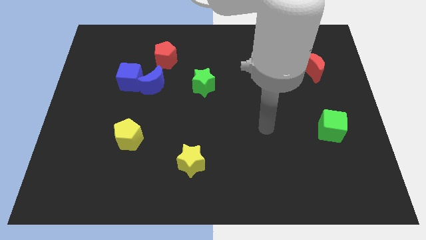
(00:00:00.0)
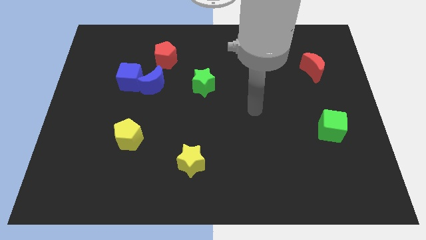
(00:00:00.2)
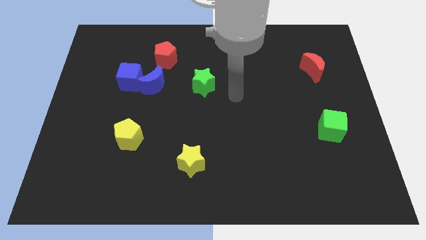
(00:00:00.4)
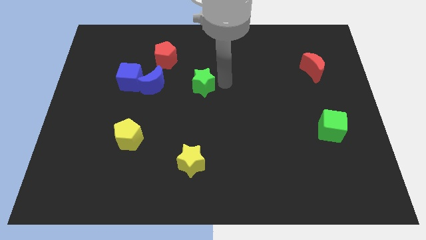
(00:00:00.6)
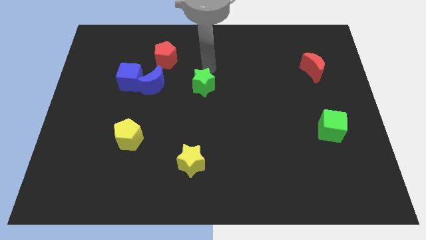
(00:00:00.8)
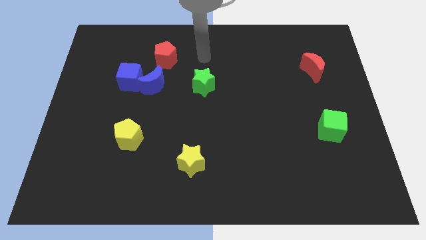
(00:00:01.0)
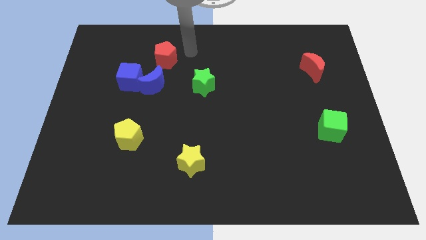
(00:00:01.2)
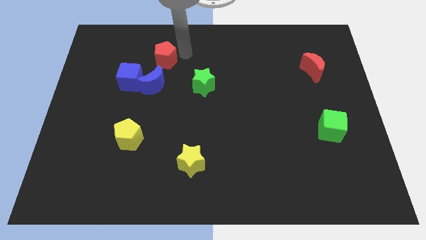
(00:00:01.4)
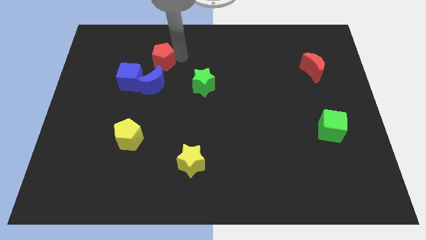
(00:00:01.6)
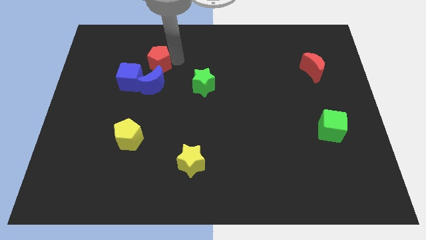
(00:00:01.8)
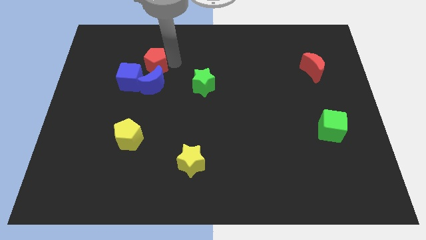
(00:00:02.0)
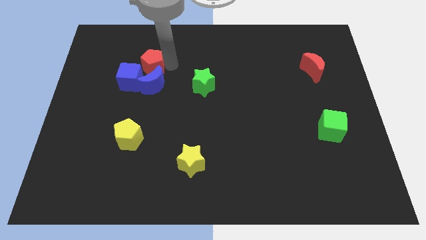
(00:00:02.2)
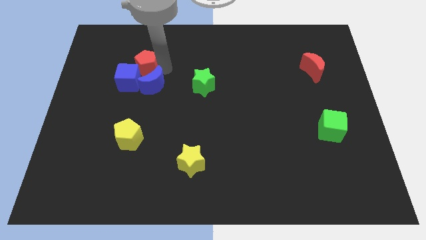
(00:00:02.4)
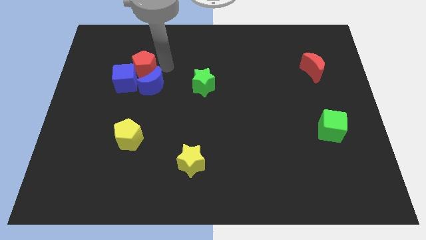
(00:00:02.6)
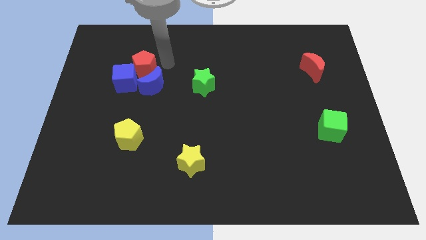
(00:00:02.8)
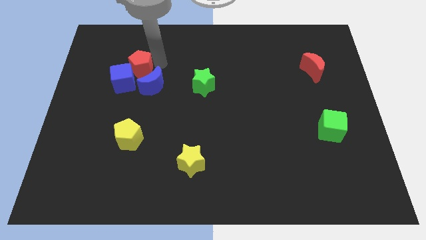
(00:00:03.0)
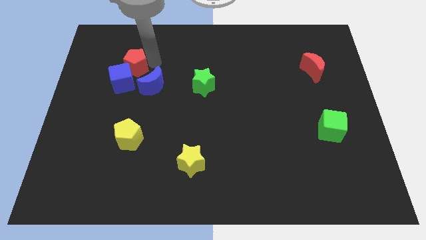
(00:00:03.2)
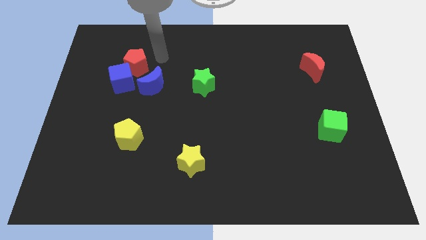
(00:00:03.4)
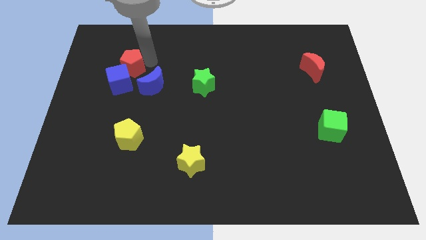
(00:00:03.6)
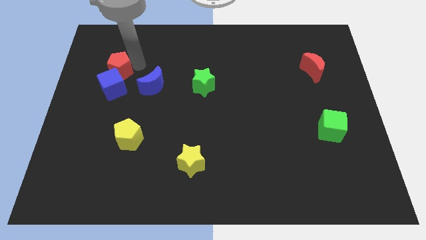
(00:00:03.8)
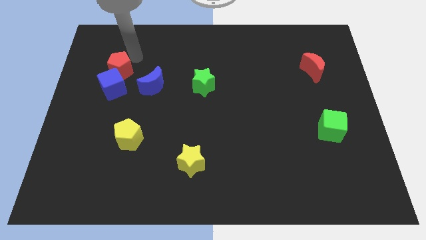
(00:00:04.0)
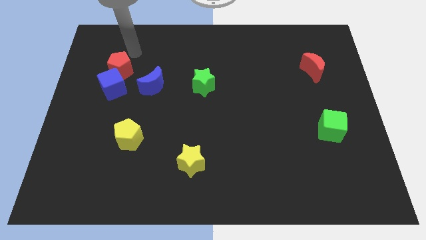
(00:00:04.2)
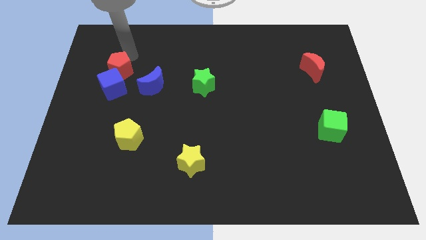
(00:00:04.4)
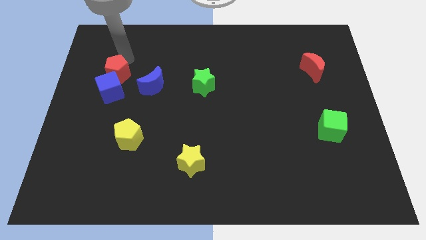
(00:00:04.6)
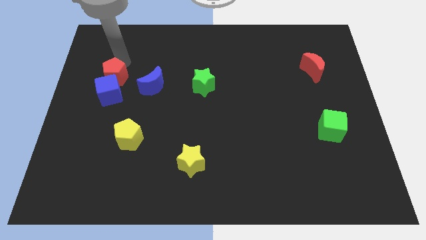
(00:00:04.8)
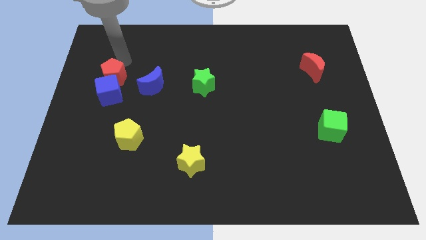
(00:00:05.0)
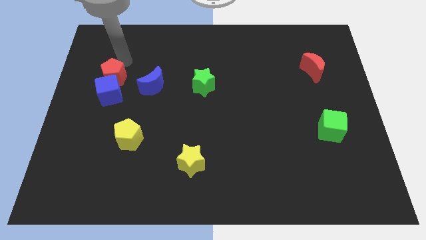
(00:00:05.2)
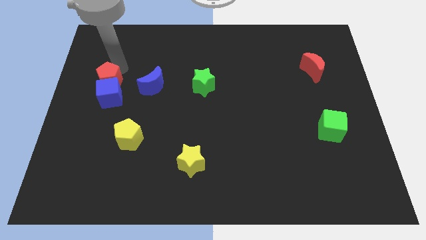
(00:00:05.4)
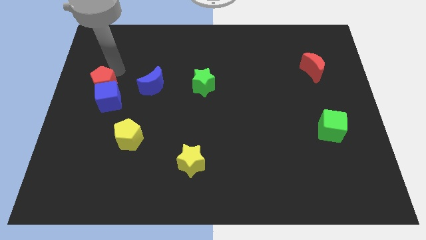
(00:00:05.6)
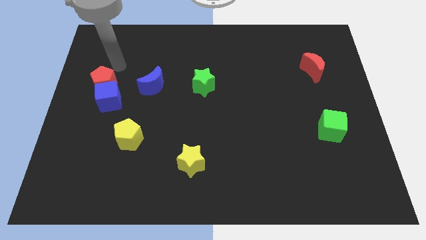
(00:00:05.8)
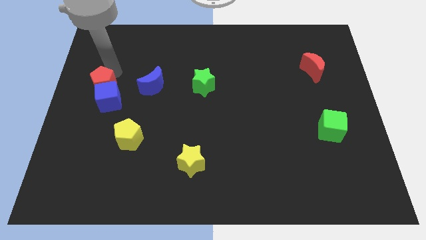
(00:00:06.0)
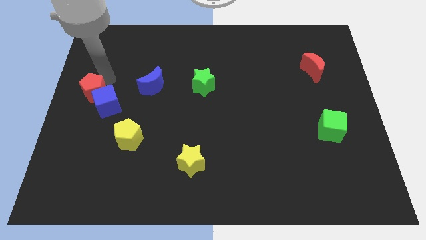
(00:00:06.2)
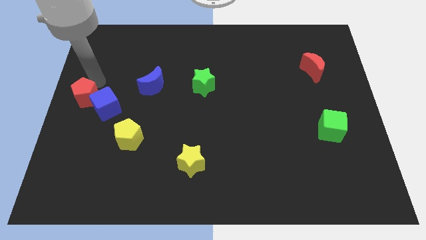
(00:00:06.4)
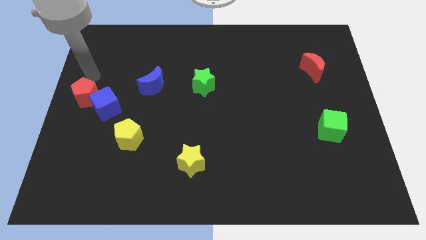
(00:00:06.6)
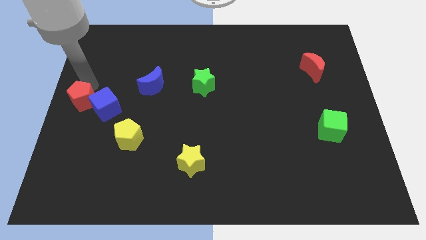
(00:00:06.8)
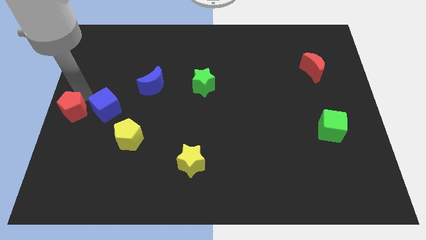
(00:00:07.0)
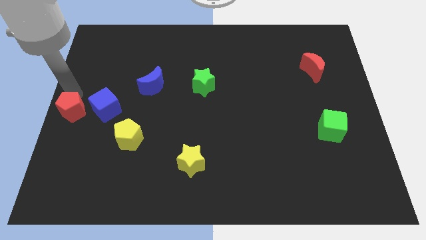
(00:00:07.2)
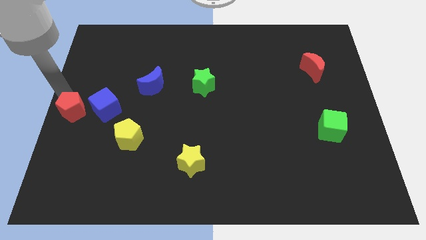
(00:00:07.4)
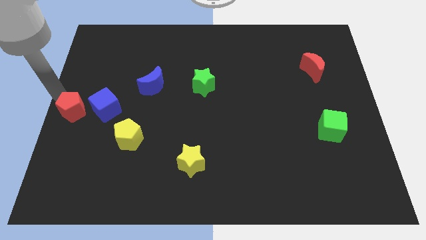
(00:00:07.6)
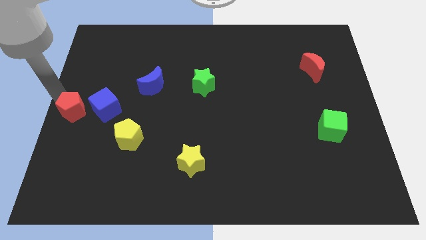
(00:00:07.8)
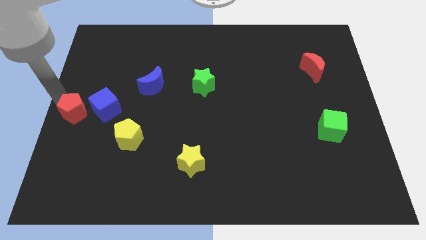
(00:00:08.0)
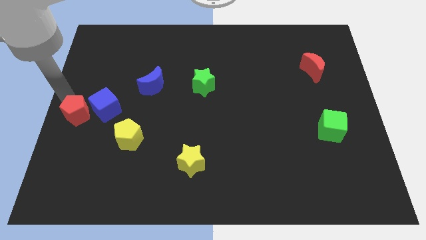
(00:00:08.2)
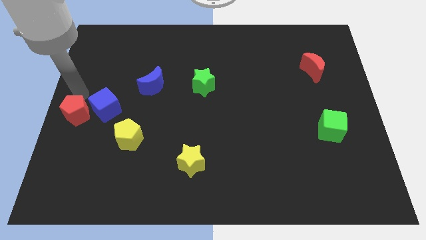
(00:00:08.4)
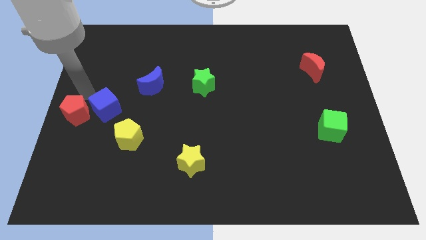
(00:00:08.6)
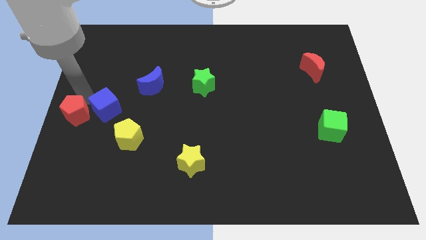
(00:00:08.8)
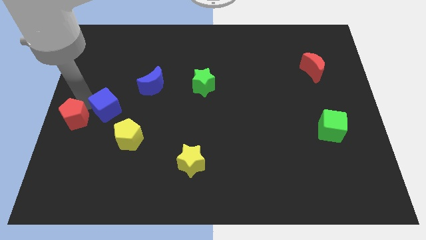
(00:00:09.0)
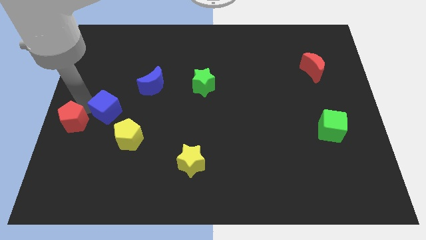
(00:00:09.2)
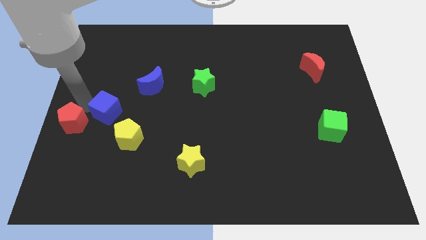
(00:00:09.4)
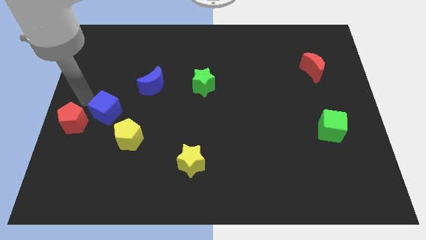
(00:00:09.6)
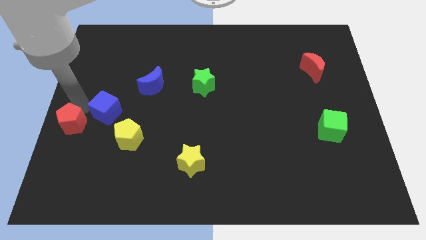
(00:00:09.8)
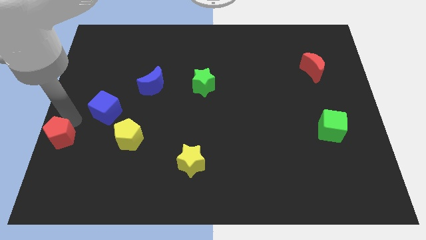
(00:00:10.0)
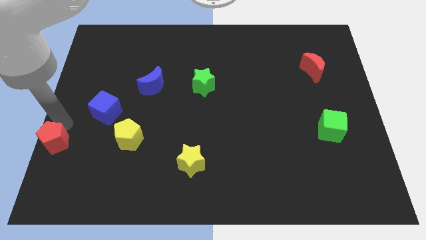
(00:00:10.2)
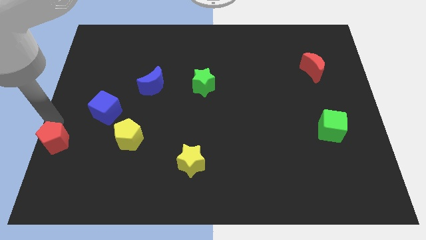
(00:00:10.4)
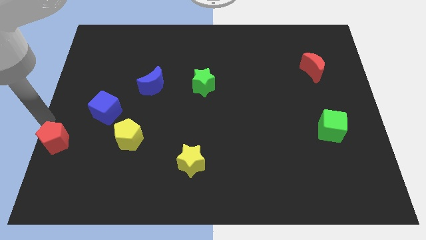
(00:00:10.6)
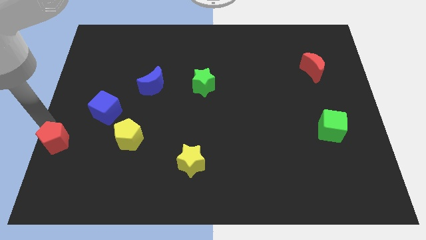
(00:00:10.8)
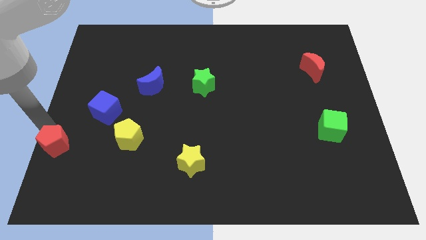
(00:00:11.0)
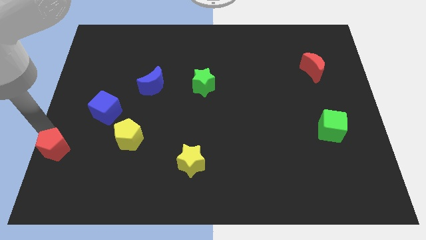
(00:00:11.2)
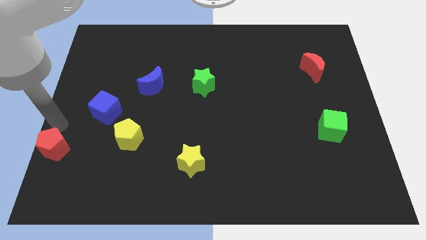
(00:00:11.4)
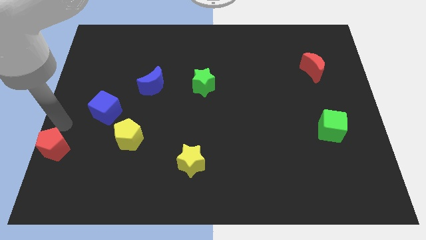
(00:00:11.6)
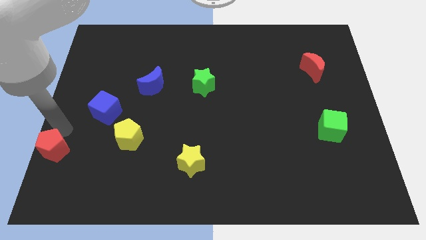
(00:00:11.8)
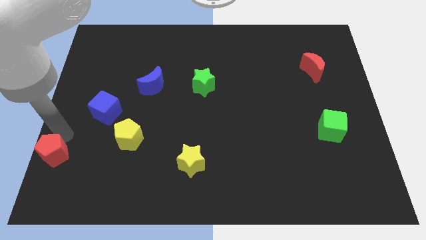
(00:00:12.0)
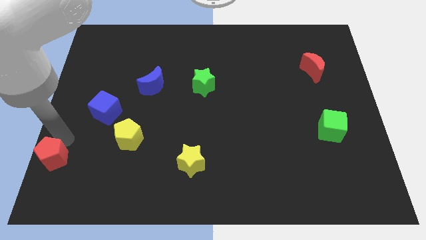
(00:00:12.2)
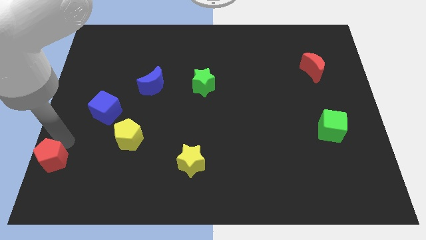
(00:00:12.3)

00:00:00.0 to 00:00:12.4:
slide the red pentagon to the lower left corner

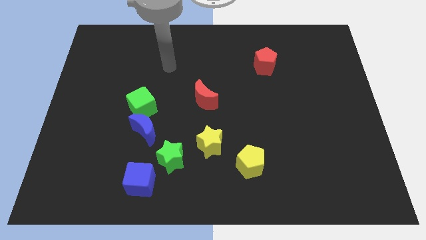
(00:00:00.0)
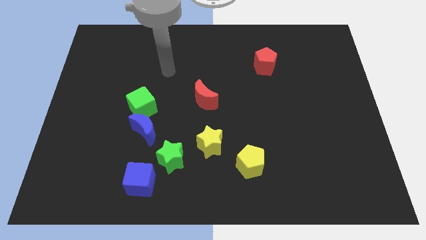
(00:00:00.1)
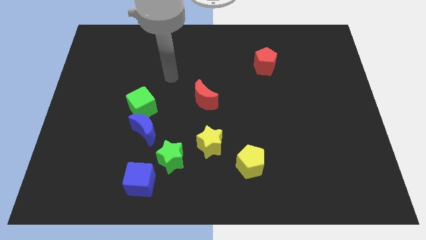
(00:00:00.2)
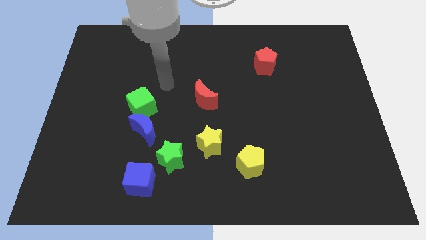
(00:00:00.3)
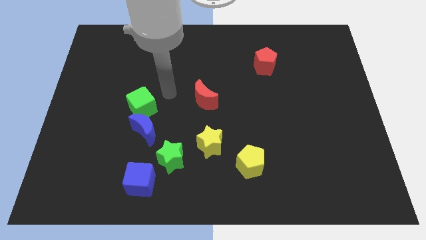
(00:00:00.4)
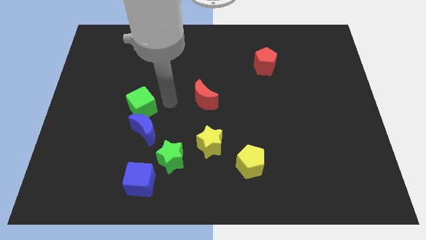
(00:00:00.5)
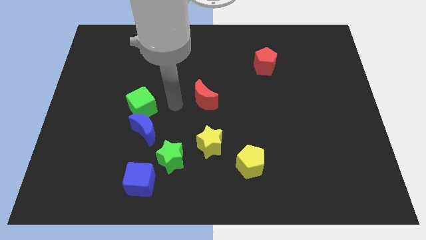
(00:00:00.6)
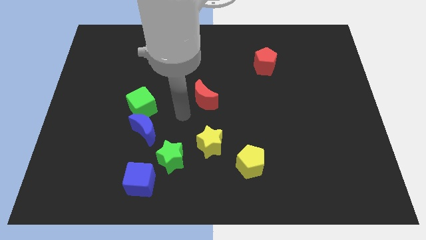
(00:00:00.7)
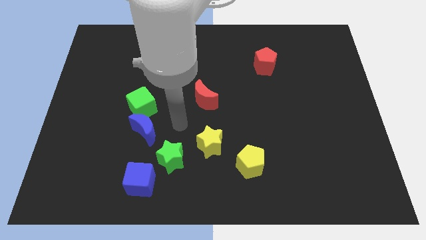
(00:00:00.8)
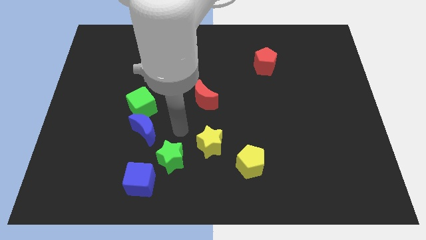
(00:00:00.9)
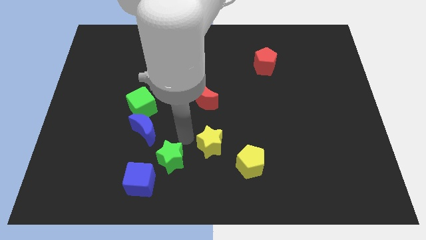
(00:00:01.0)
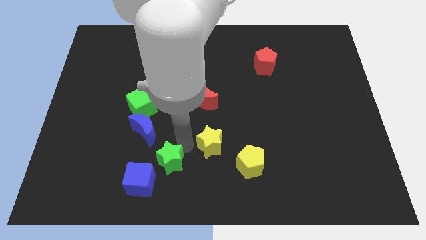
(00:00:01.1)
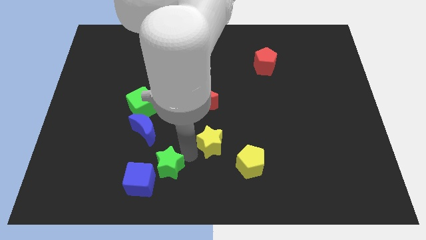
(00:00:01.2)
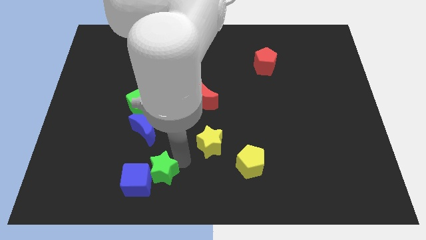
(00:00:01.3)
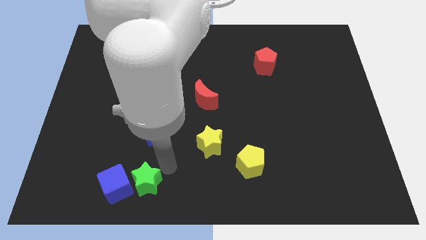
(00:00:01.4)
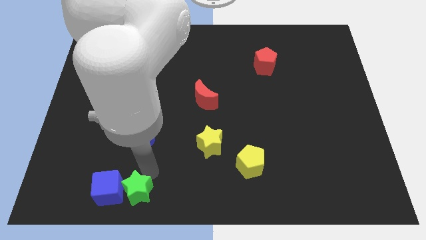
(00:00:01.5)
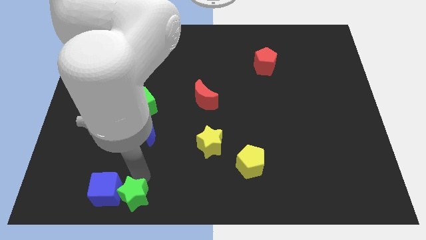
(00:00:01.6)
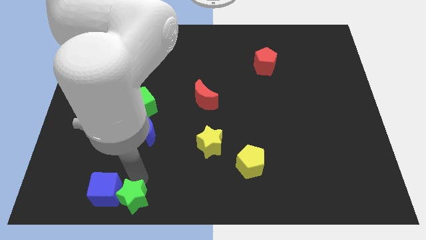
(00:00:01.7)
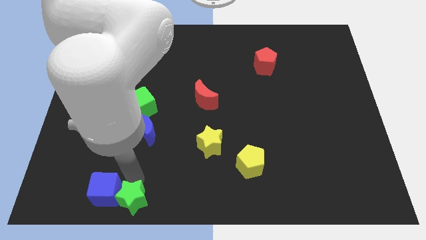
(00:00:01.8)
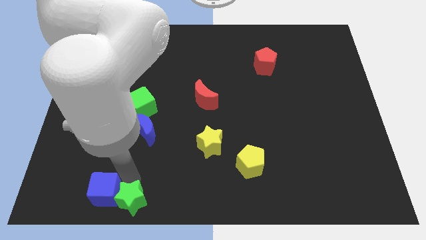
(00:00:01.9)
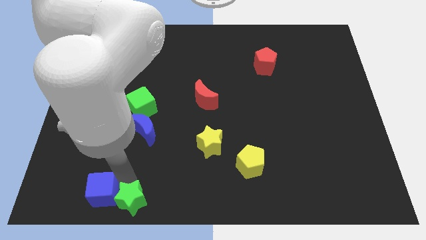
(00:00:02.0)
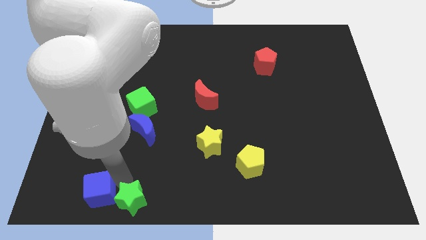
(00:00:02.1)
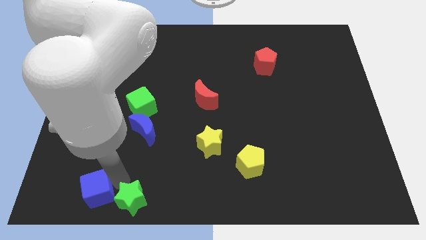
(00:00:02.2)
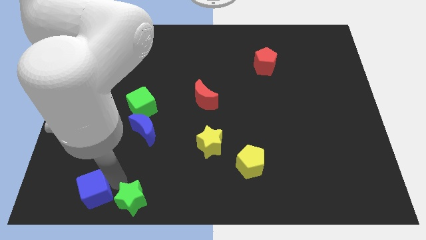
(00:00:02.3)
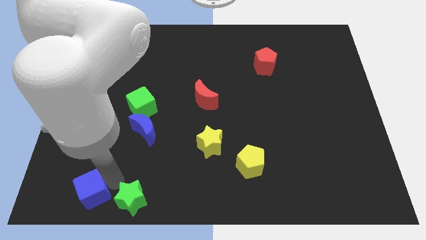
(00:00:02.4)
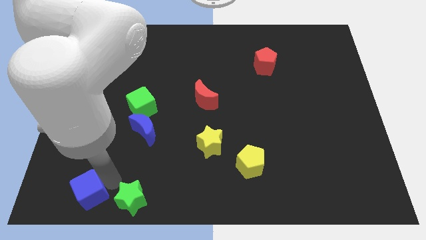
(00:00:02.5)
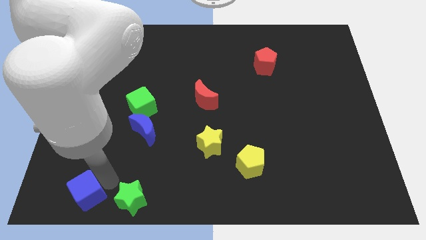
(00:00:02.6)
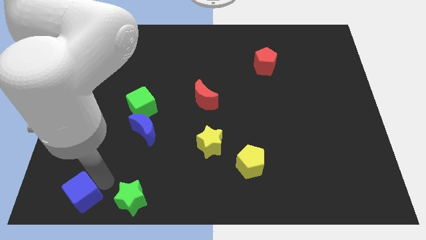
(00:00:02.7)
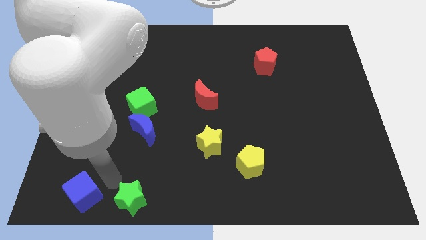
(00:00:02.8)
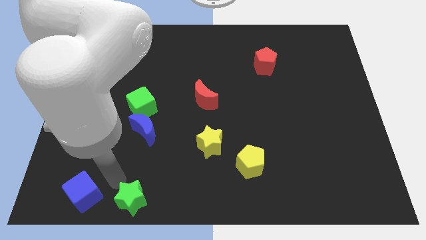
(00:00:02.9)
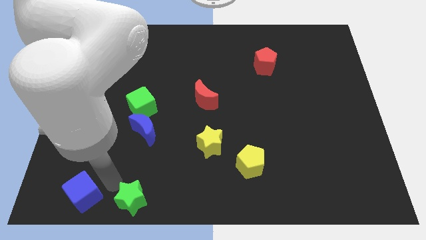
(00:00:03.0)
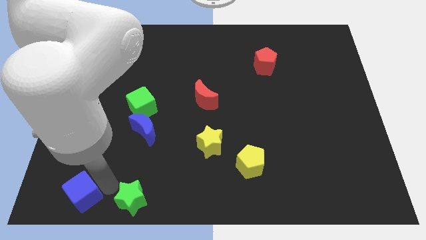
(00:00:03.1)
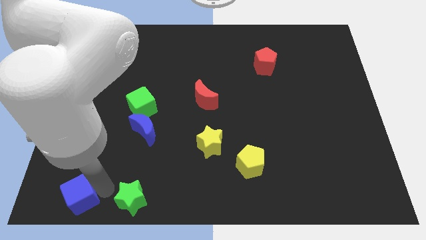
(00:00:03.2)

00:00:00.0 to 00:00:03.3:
push the blue cube to the bottom left corner
